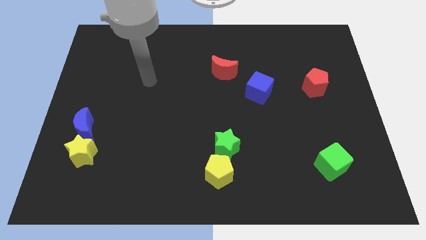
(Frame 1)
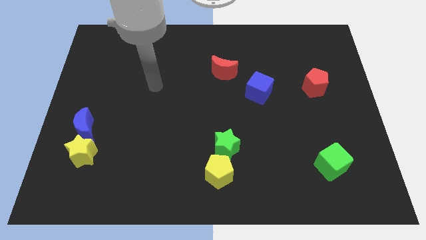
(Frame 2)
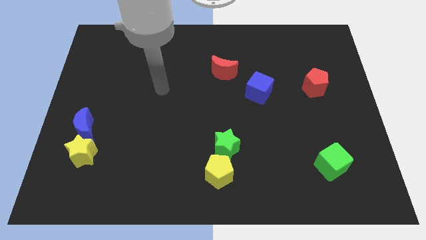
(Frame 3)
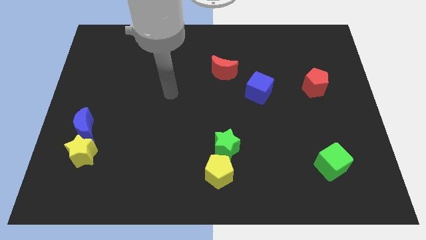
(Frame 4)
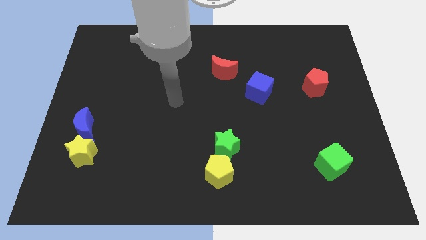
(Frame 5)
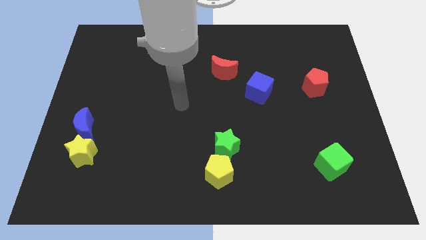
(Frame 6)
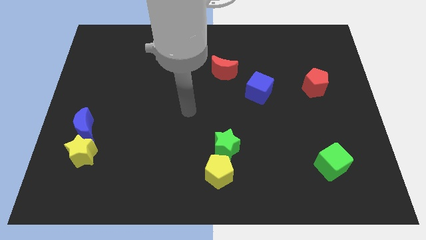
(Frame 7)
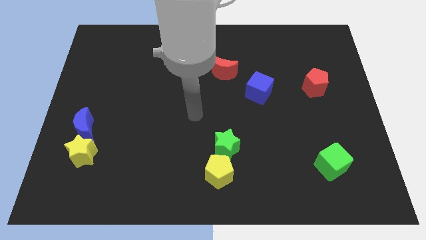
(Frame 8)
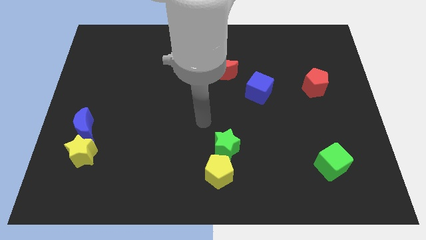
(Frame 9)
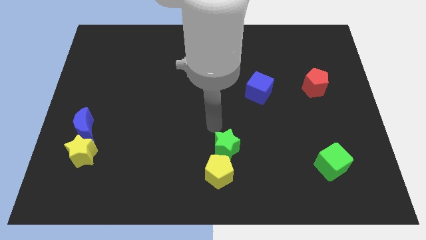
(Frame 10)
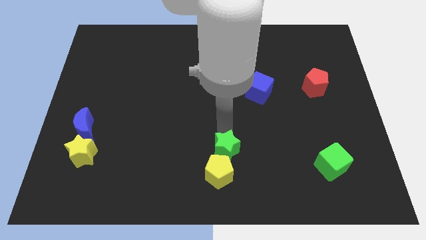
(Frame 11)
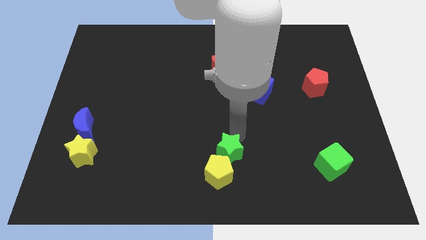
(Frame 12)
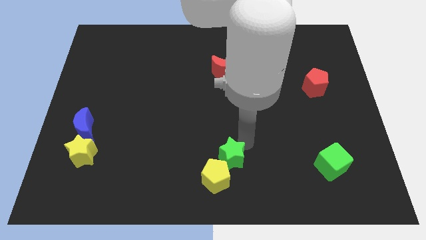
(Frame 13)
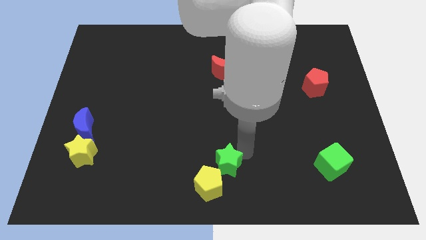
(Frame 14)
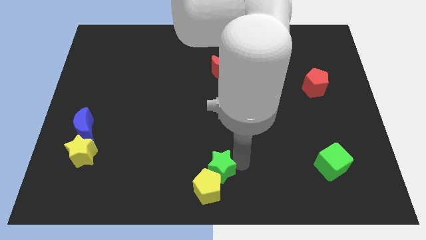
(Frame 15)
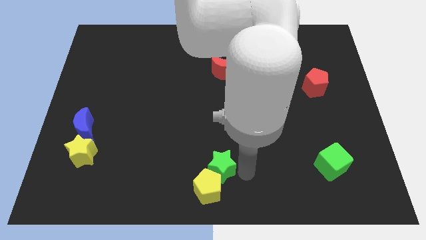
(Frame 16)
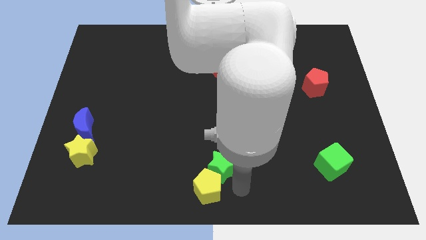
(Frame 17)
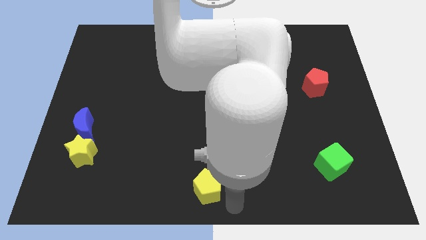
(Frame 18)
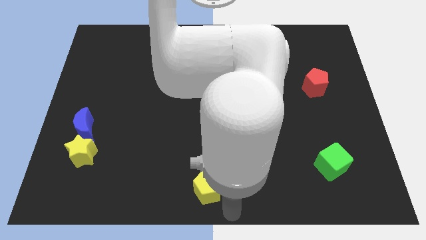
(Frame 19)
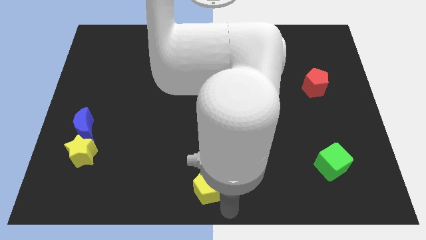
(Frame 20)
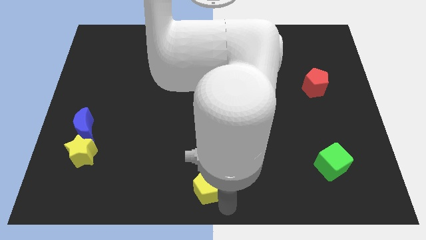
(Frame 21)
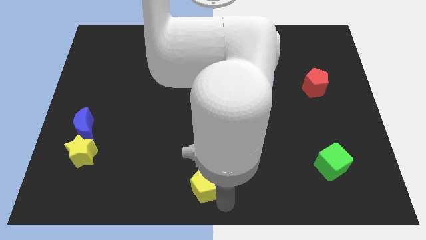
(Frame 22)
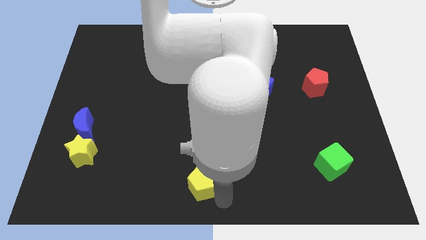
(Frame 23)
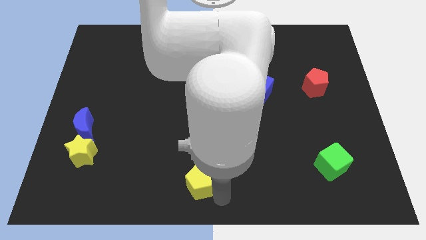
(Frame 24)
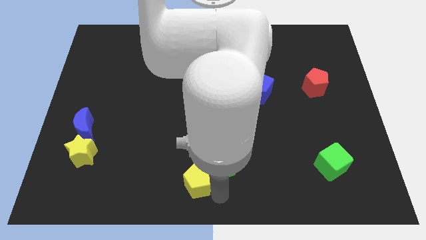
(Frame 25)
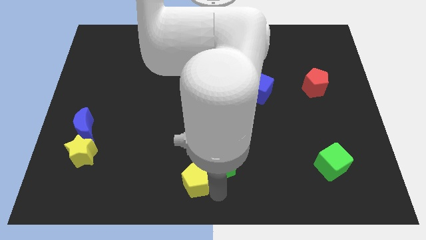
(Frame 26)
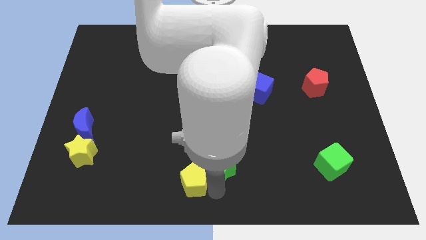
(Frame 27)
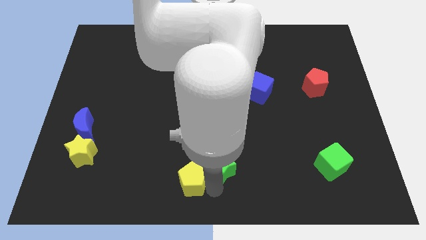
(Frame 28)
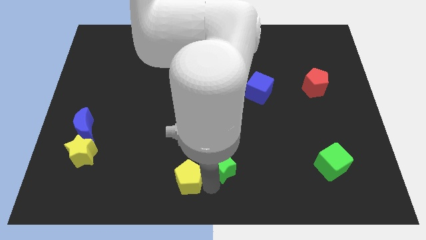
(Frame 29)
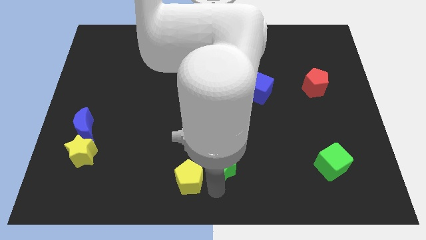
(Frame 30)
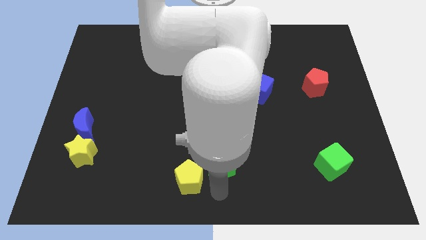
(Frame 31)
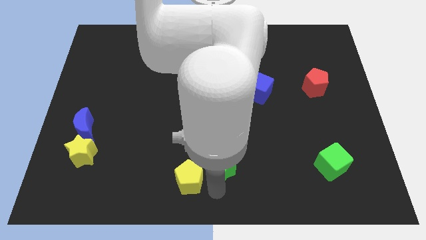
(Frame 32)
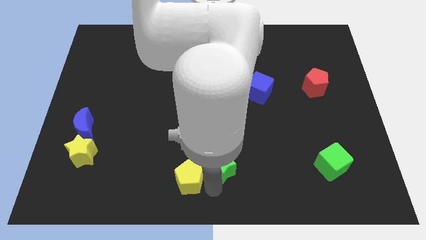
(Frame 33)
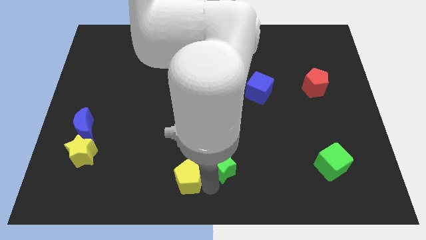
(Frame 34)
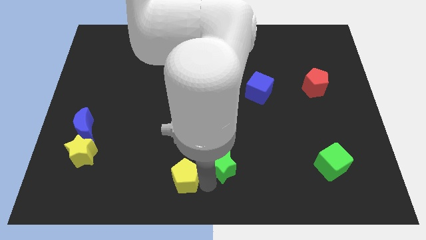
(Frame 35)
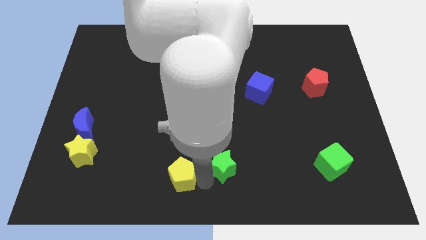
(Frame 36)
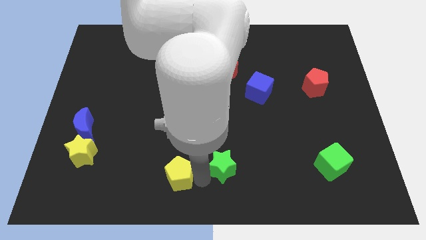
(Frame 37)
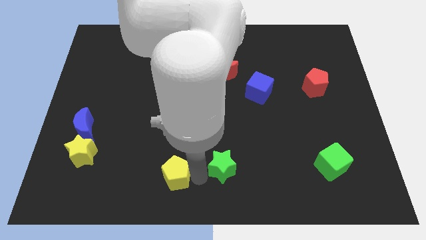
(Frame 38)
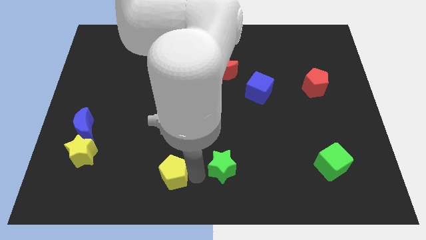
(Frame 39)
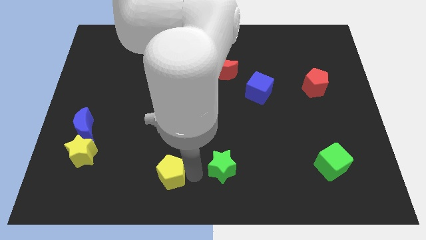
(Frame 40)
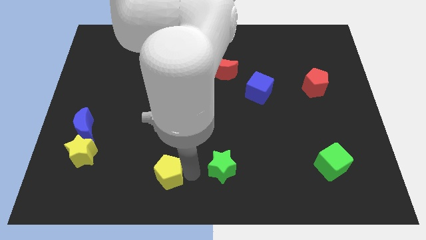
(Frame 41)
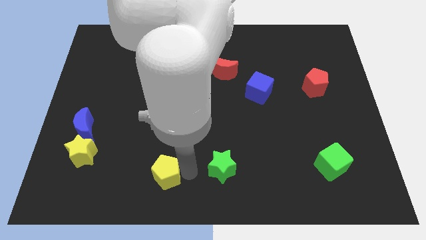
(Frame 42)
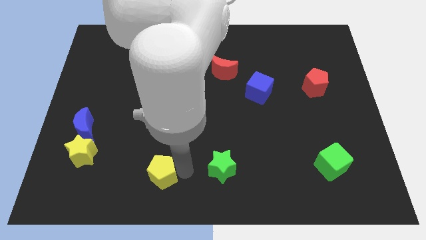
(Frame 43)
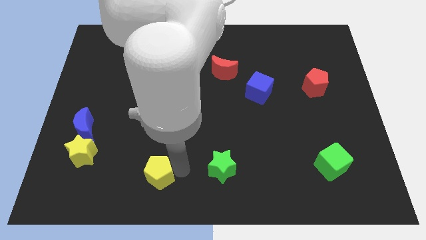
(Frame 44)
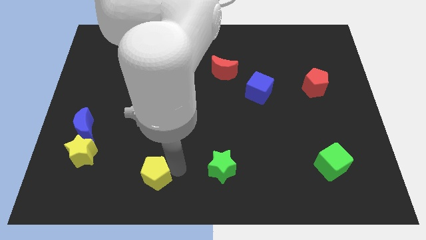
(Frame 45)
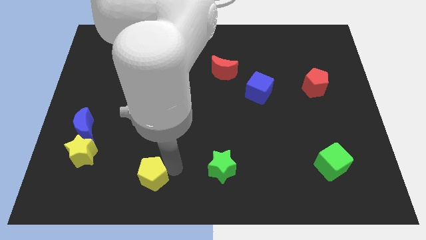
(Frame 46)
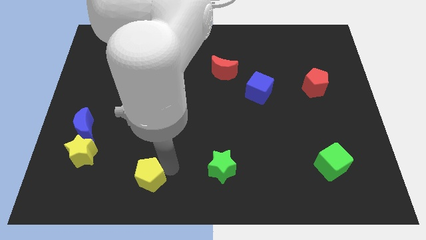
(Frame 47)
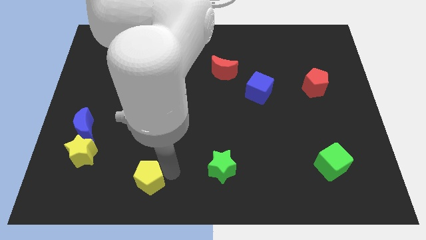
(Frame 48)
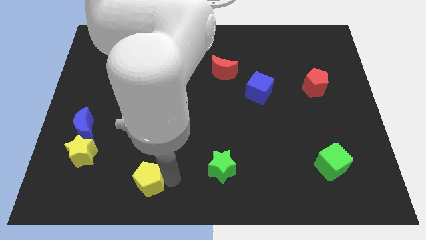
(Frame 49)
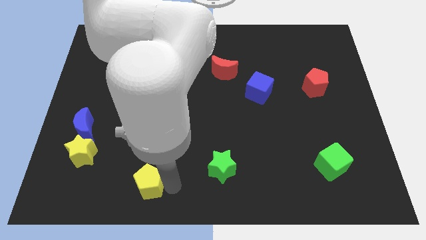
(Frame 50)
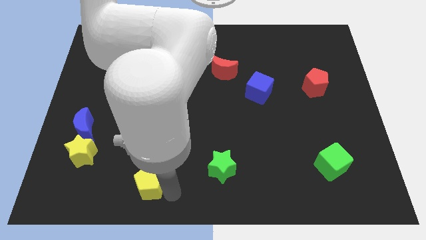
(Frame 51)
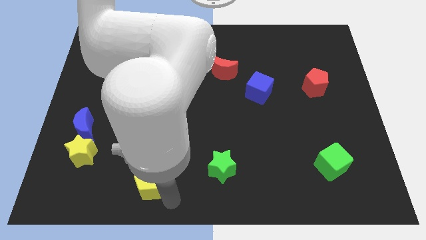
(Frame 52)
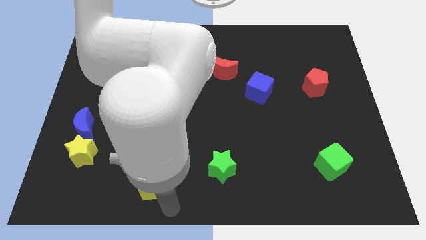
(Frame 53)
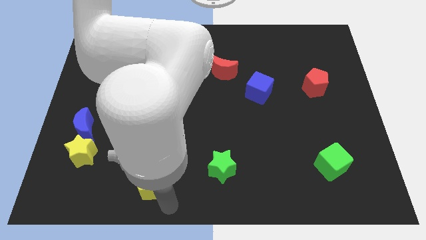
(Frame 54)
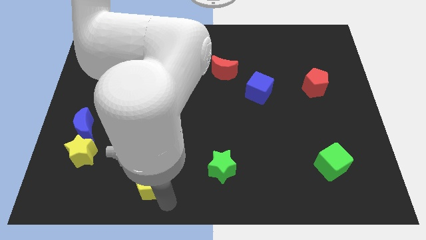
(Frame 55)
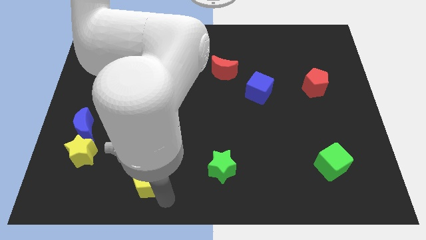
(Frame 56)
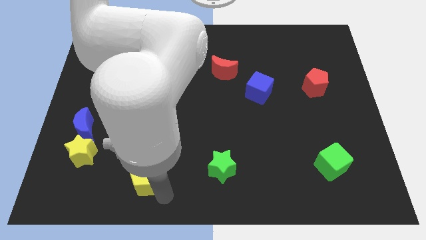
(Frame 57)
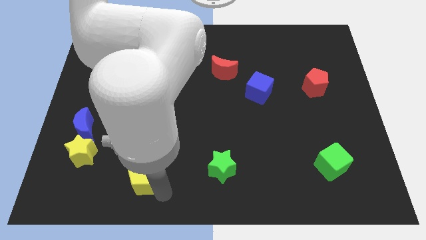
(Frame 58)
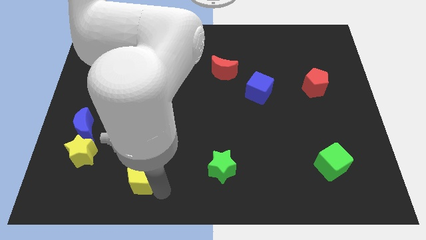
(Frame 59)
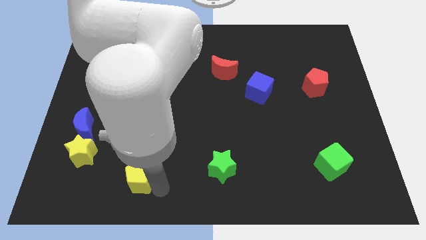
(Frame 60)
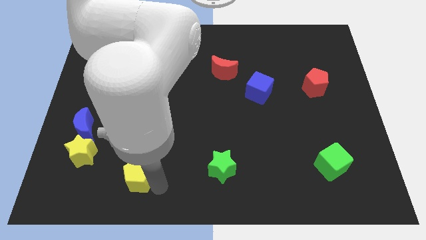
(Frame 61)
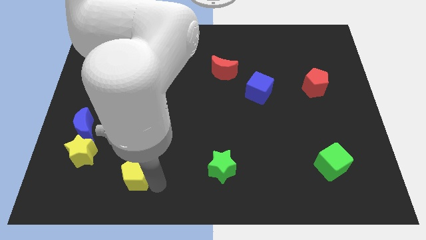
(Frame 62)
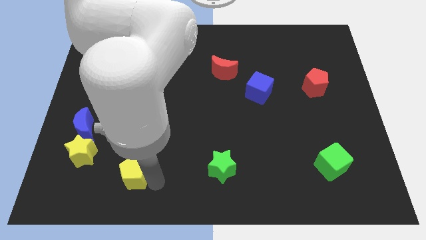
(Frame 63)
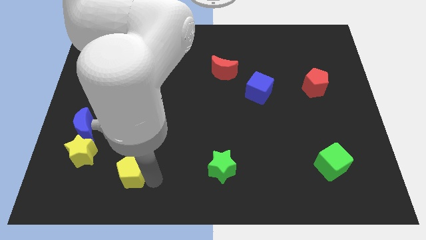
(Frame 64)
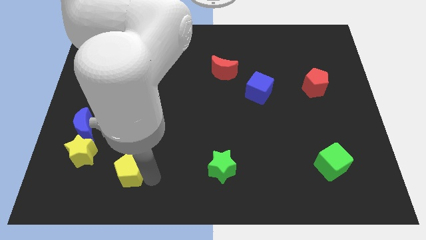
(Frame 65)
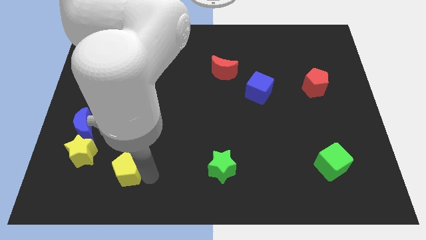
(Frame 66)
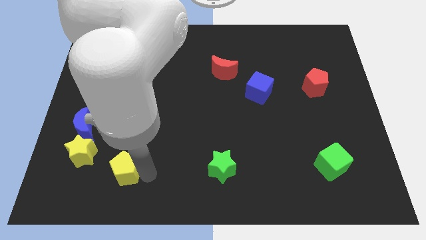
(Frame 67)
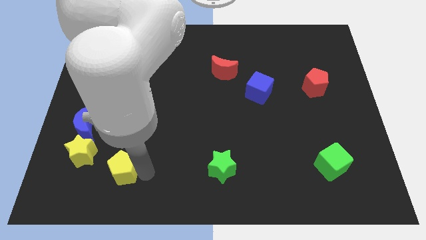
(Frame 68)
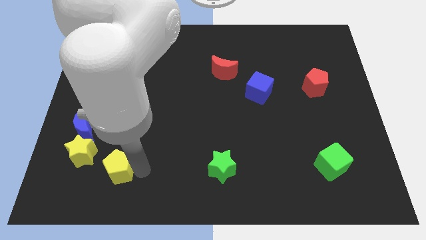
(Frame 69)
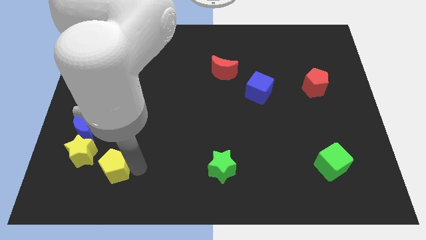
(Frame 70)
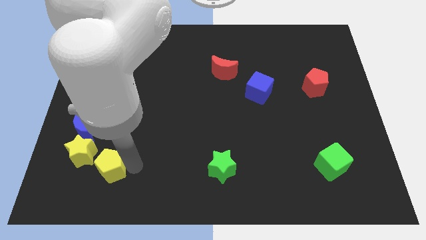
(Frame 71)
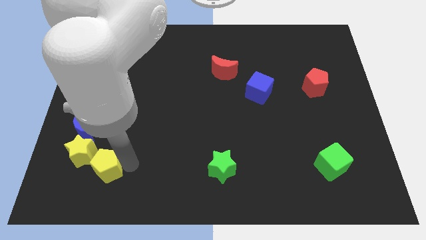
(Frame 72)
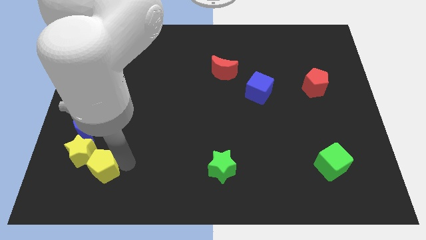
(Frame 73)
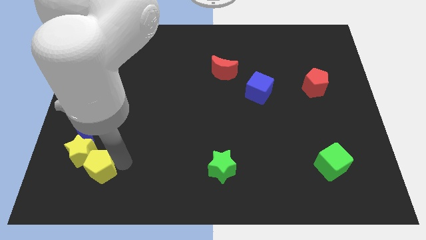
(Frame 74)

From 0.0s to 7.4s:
move the yellow pentagon towards the yellow star

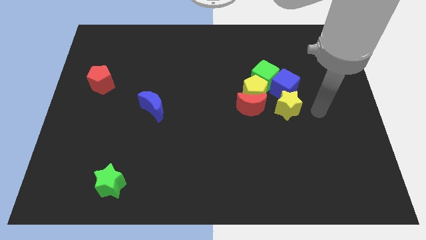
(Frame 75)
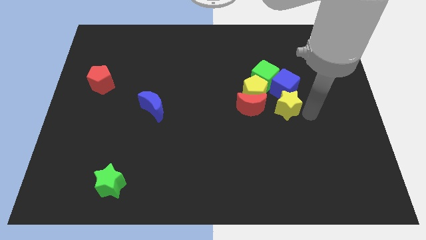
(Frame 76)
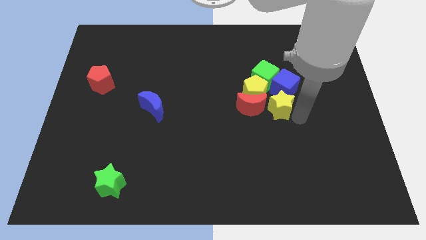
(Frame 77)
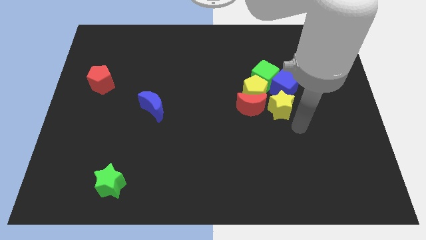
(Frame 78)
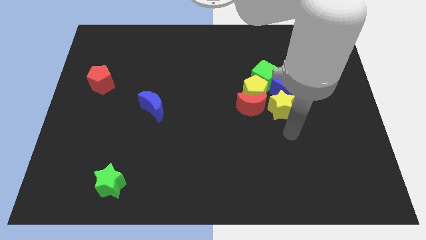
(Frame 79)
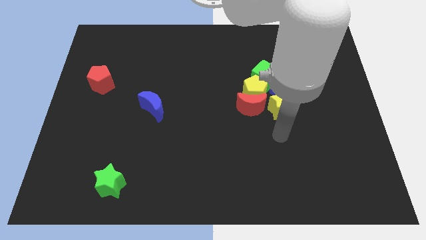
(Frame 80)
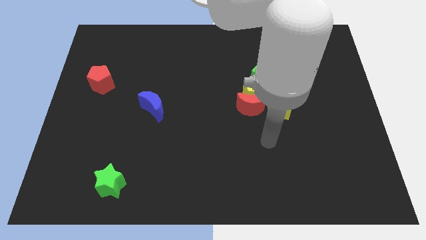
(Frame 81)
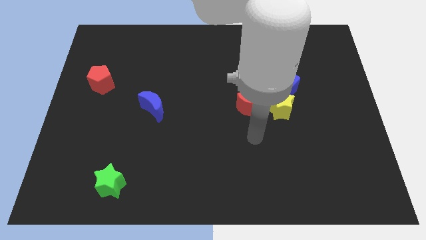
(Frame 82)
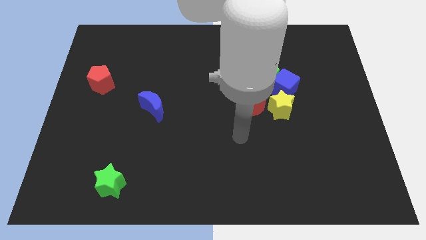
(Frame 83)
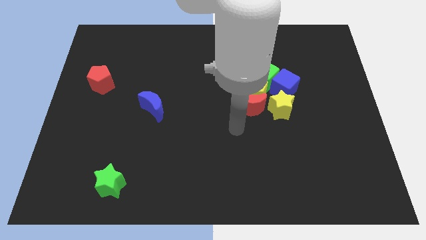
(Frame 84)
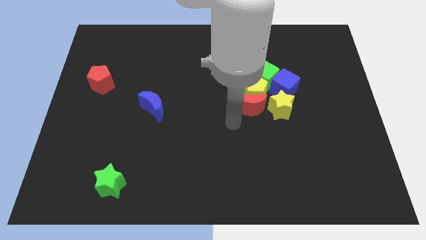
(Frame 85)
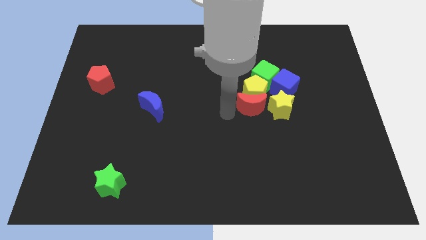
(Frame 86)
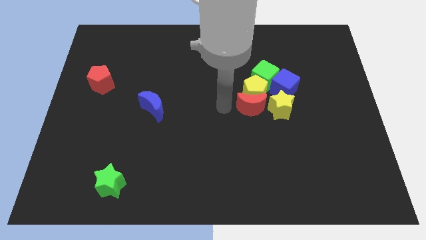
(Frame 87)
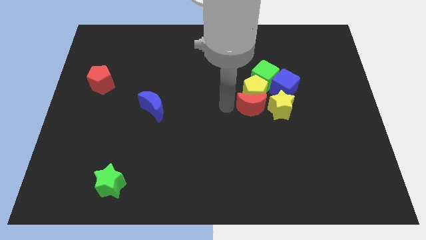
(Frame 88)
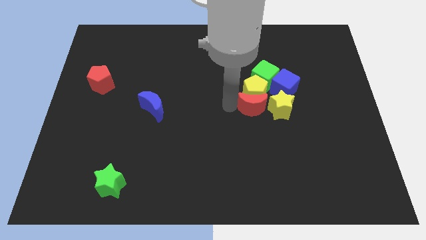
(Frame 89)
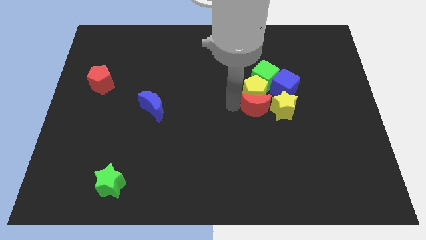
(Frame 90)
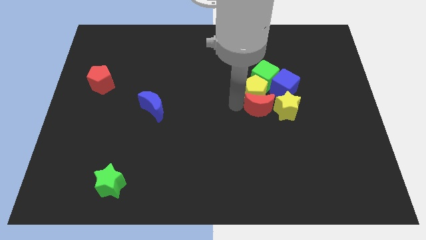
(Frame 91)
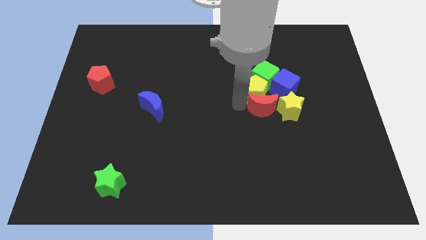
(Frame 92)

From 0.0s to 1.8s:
move the red moon towards the yellow star
